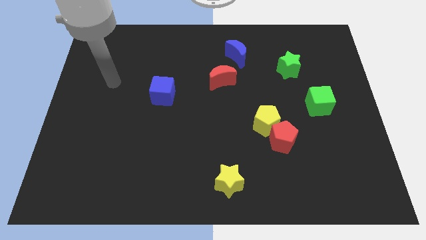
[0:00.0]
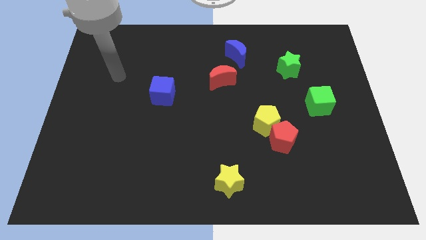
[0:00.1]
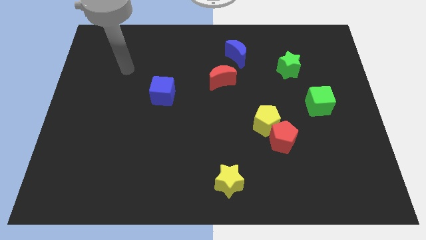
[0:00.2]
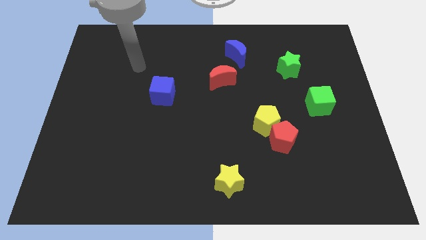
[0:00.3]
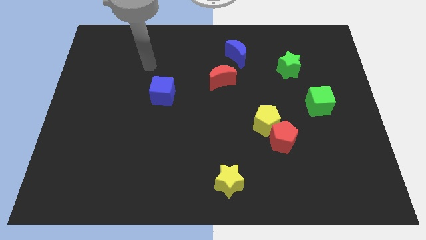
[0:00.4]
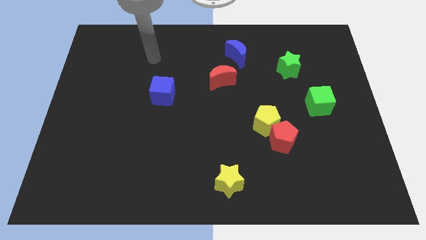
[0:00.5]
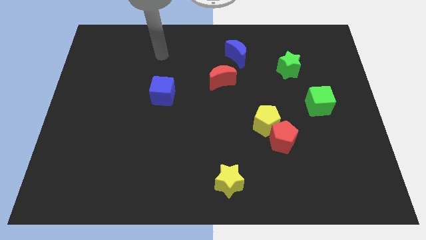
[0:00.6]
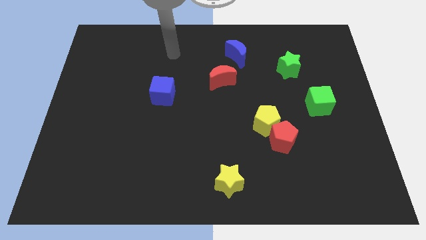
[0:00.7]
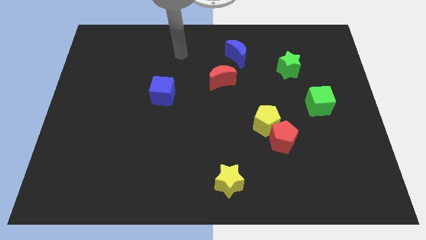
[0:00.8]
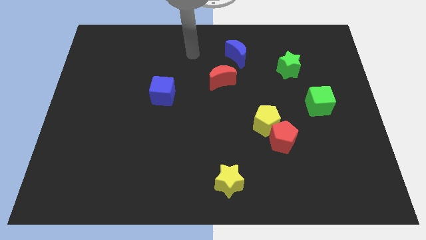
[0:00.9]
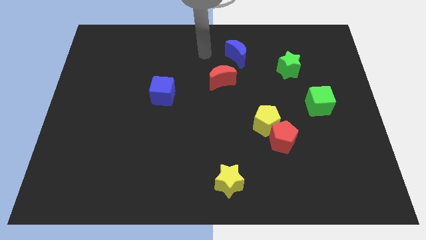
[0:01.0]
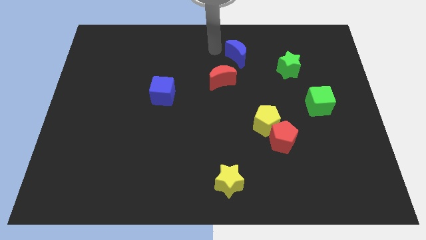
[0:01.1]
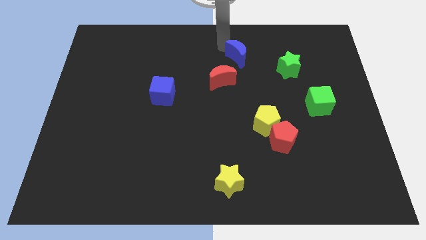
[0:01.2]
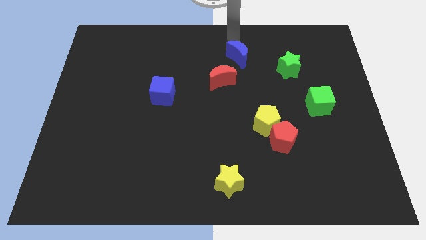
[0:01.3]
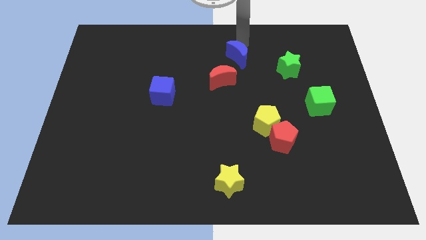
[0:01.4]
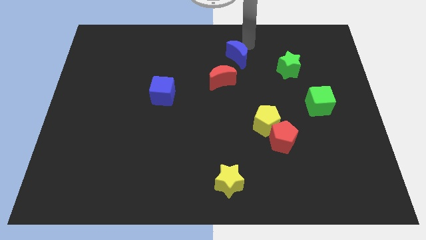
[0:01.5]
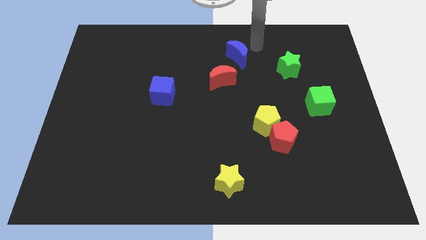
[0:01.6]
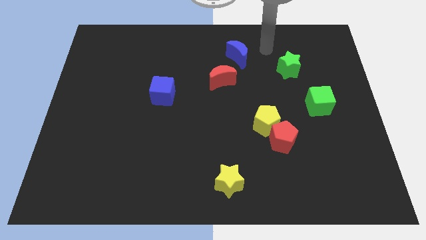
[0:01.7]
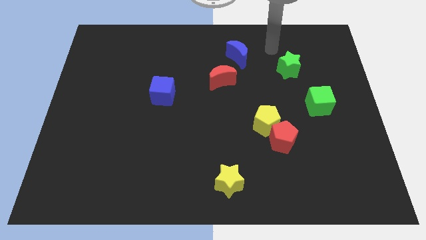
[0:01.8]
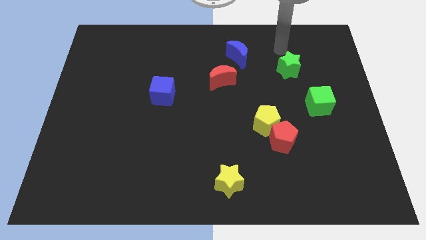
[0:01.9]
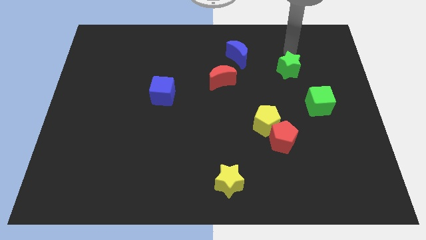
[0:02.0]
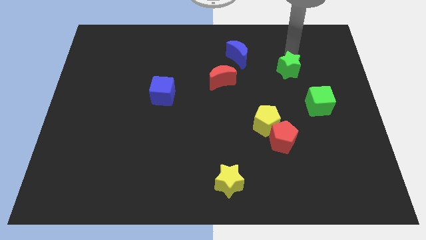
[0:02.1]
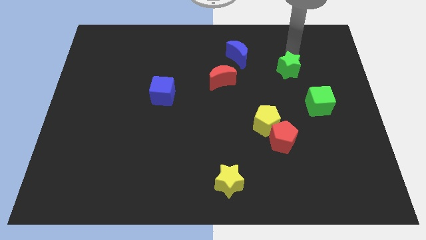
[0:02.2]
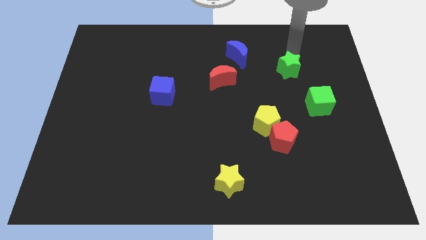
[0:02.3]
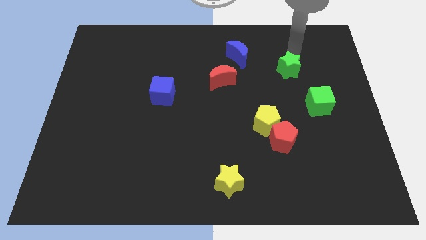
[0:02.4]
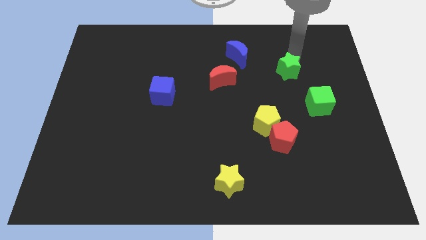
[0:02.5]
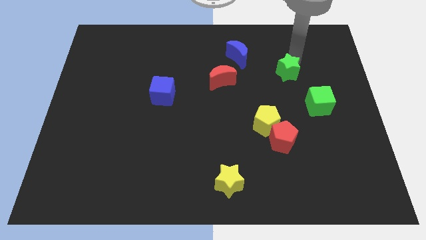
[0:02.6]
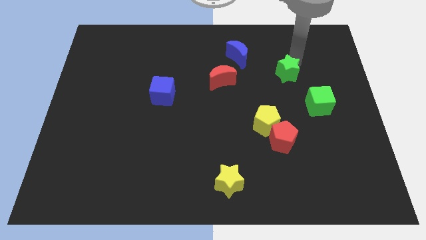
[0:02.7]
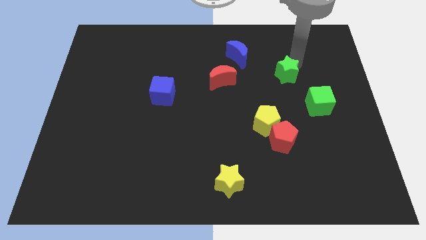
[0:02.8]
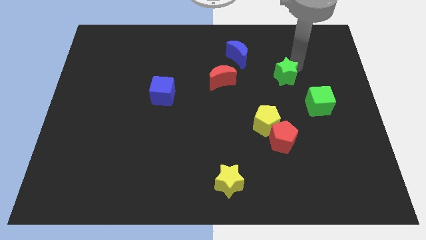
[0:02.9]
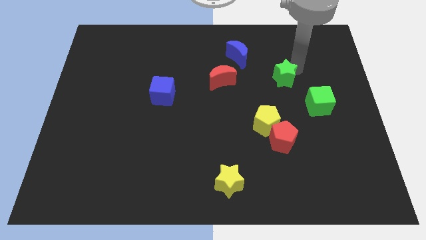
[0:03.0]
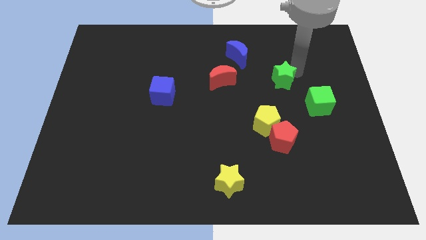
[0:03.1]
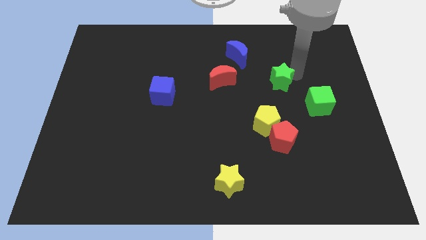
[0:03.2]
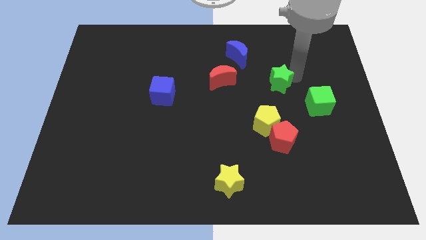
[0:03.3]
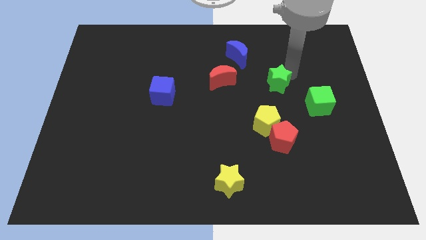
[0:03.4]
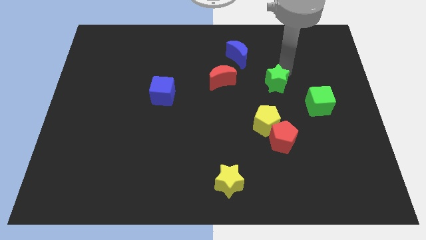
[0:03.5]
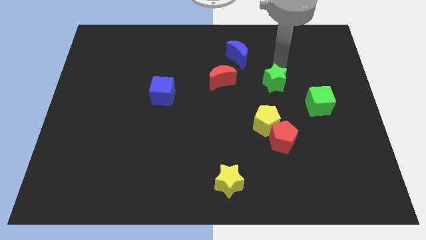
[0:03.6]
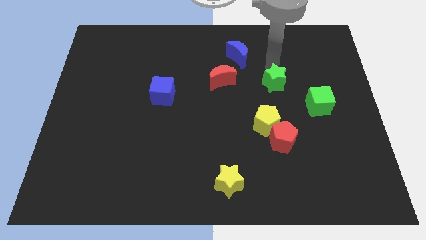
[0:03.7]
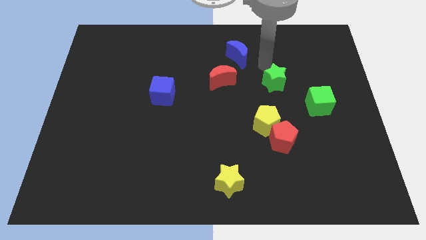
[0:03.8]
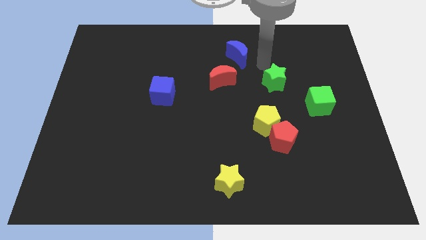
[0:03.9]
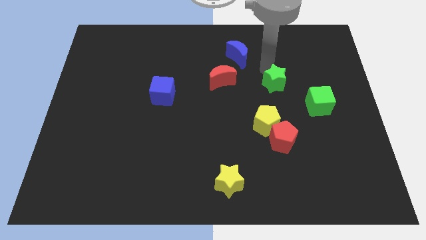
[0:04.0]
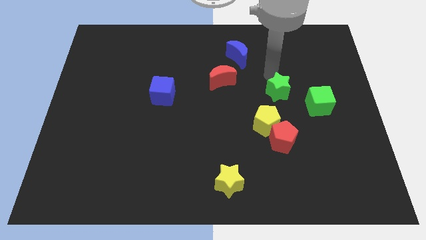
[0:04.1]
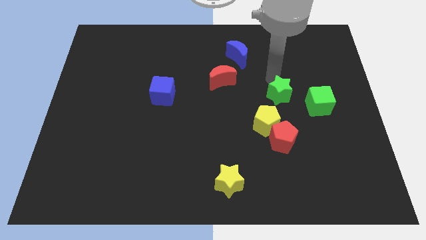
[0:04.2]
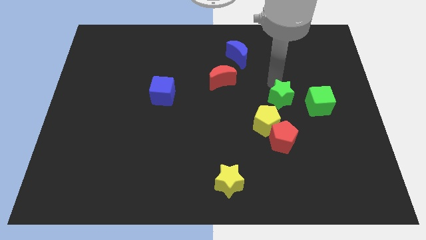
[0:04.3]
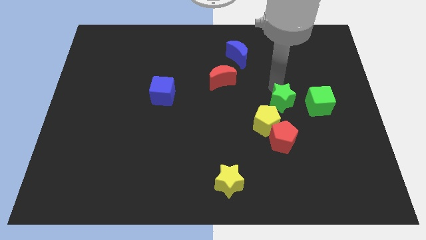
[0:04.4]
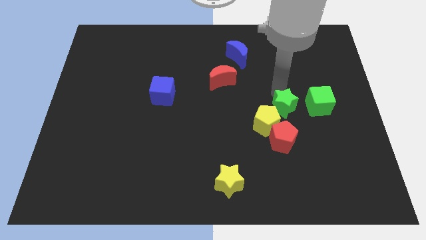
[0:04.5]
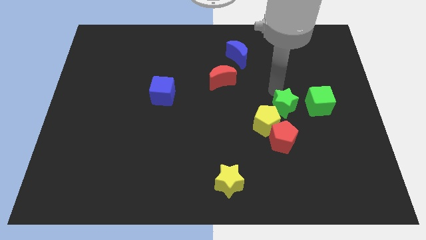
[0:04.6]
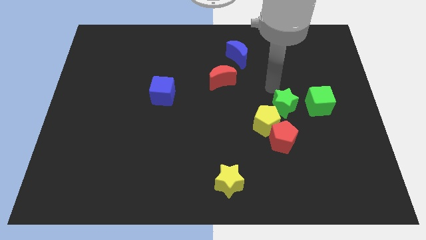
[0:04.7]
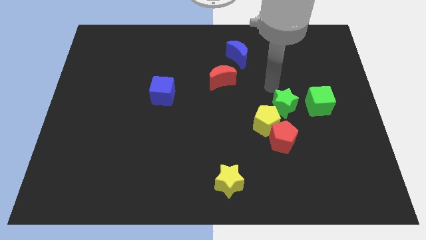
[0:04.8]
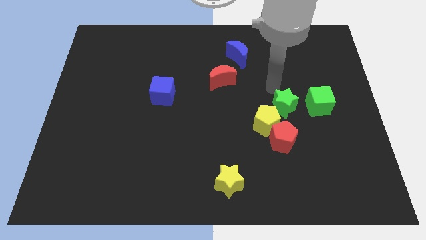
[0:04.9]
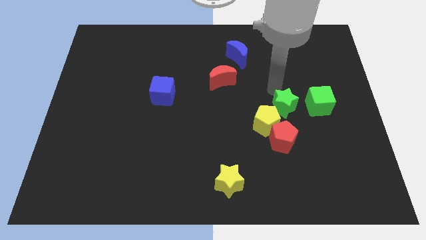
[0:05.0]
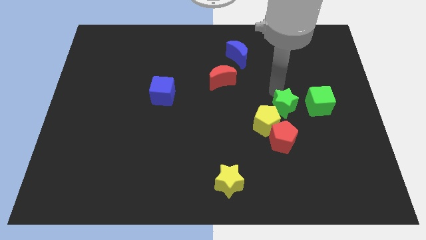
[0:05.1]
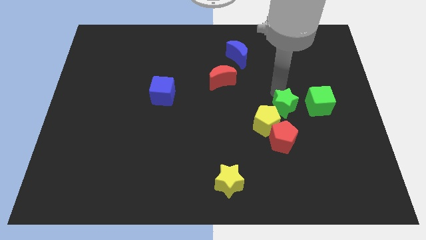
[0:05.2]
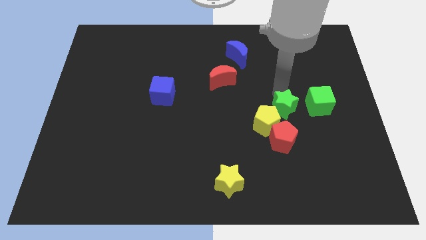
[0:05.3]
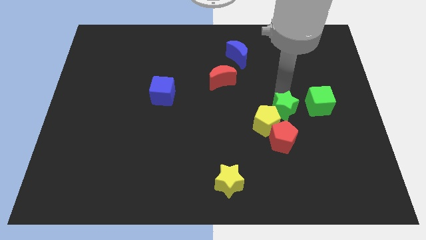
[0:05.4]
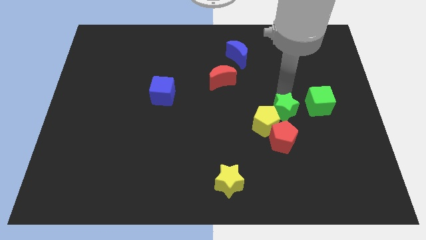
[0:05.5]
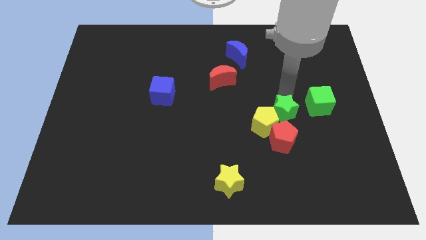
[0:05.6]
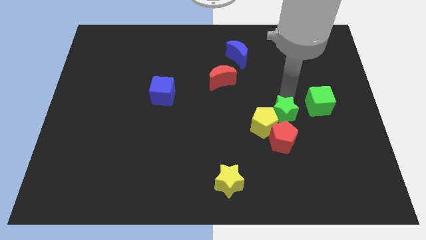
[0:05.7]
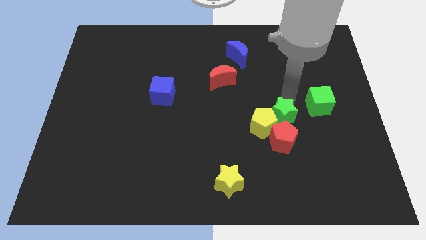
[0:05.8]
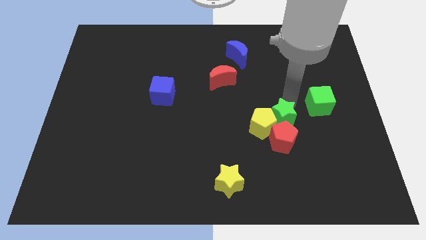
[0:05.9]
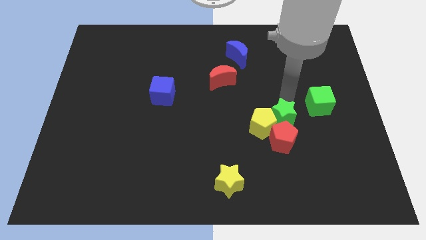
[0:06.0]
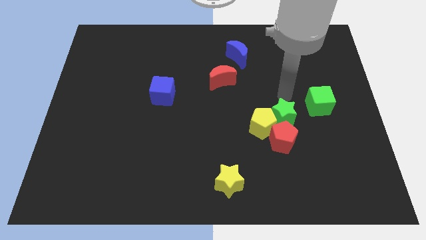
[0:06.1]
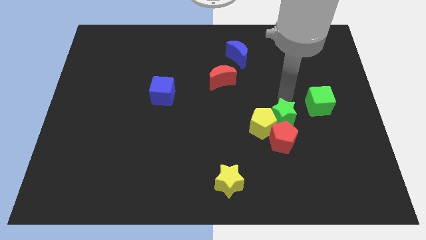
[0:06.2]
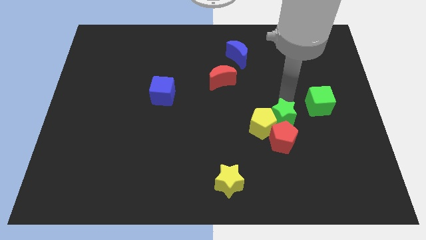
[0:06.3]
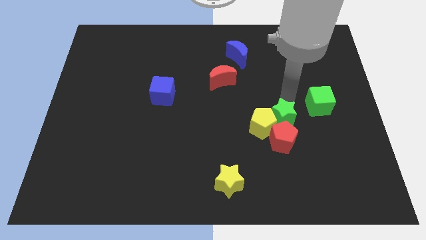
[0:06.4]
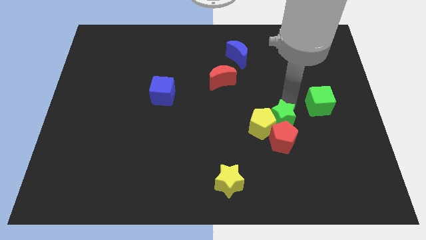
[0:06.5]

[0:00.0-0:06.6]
move the green star close to the red pentagon

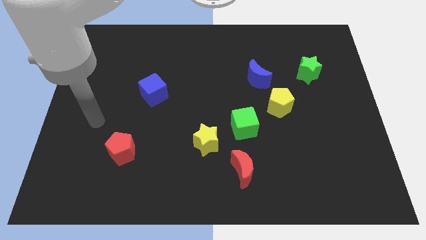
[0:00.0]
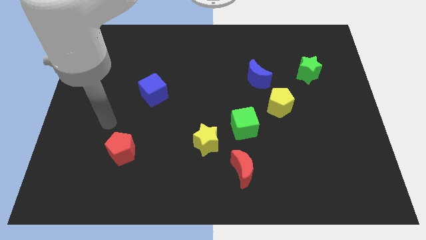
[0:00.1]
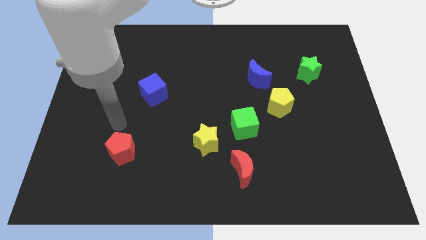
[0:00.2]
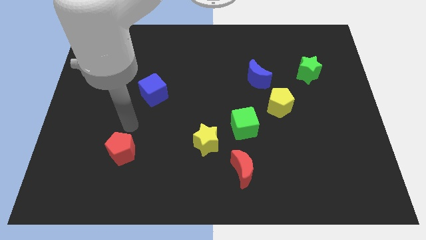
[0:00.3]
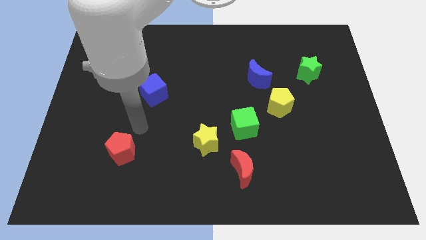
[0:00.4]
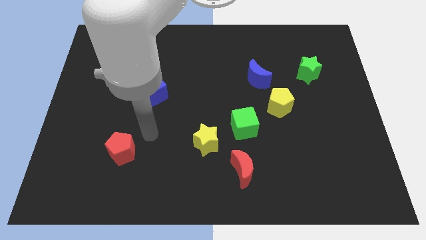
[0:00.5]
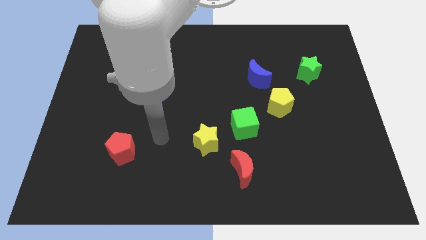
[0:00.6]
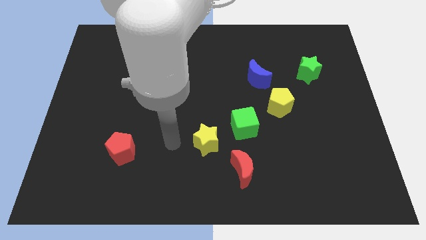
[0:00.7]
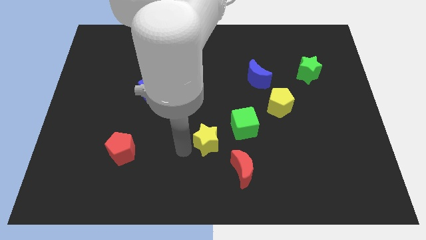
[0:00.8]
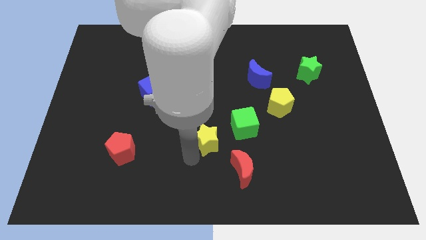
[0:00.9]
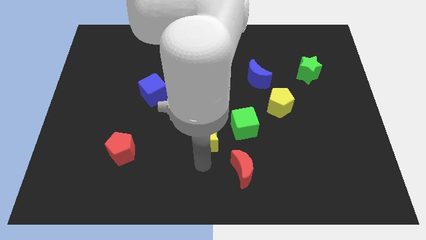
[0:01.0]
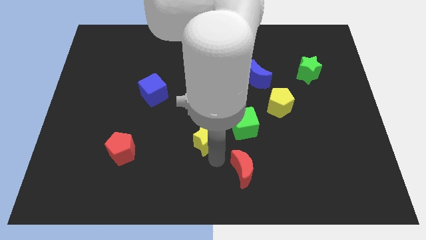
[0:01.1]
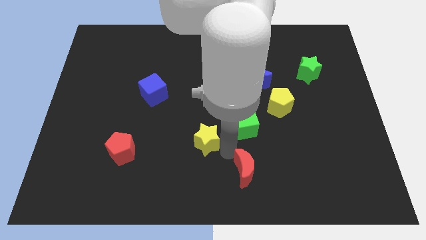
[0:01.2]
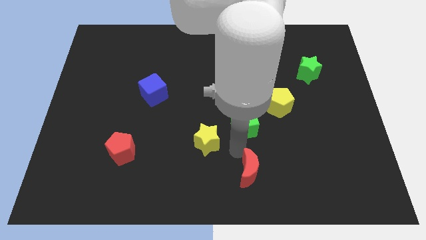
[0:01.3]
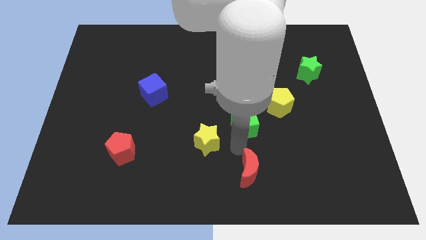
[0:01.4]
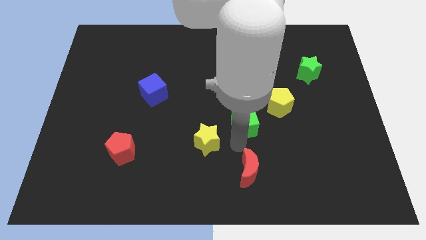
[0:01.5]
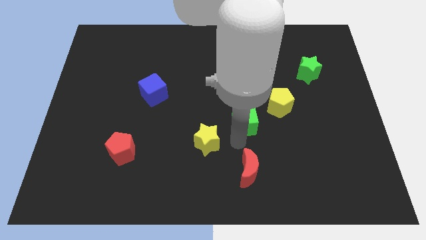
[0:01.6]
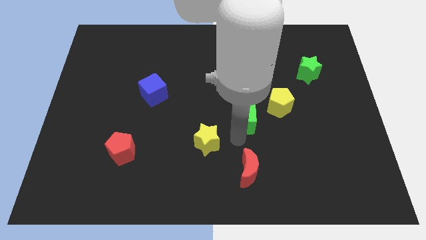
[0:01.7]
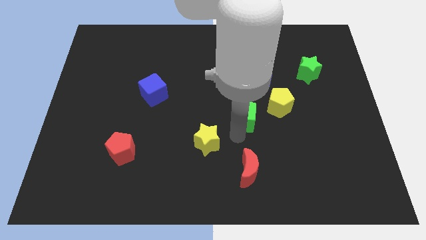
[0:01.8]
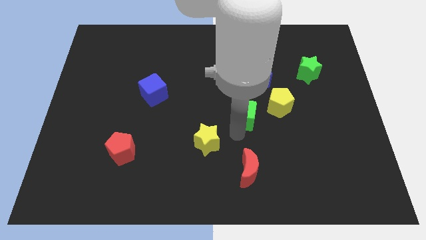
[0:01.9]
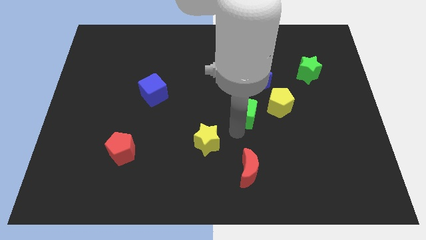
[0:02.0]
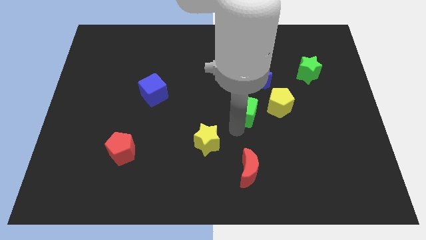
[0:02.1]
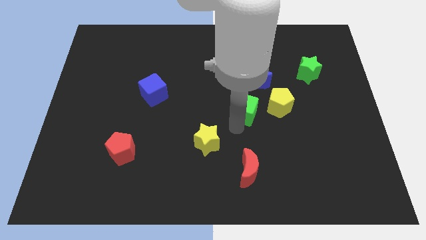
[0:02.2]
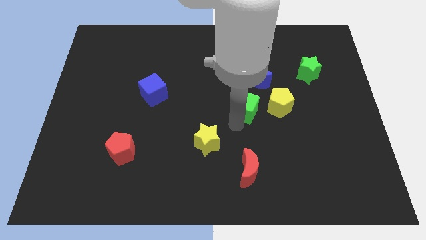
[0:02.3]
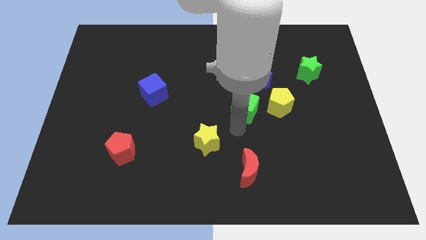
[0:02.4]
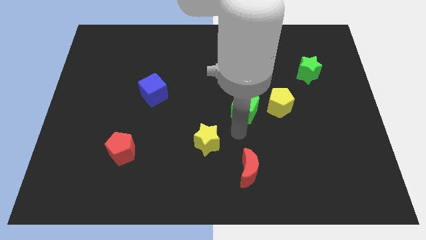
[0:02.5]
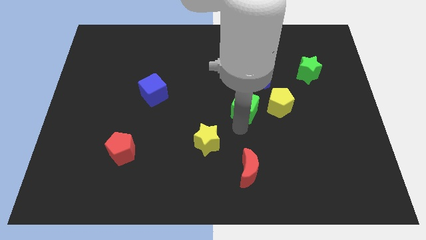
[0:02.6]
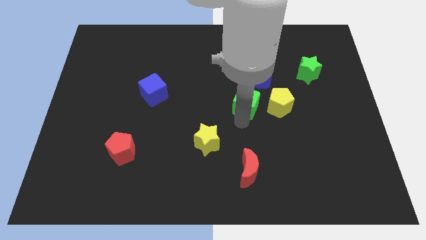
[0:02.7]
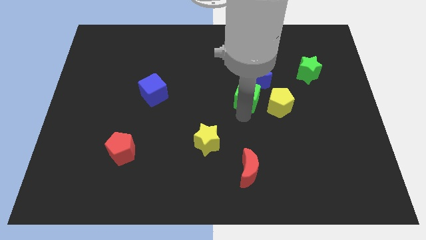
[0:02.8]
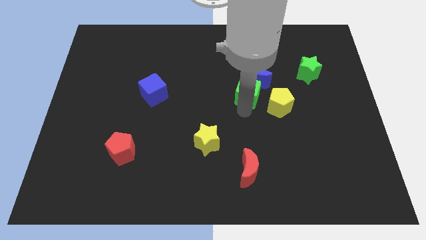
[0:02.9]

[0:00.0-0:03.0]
move the green cube close to the blue moon
